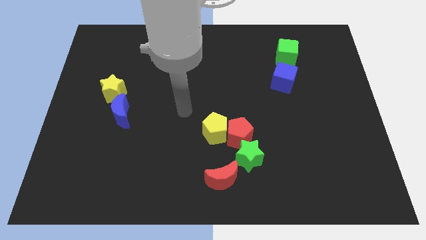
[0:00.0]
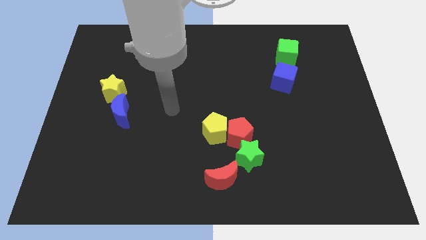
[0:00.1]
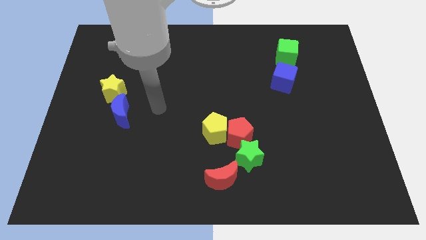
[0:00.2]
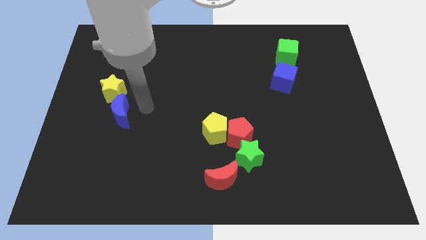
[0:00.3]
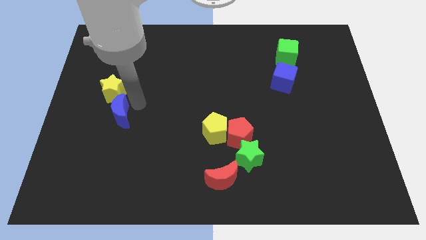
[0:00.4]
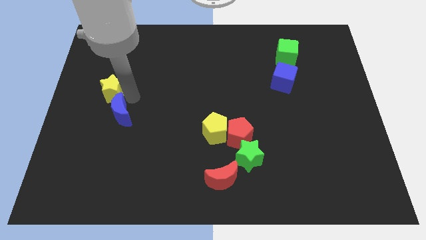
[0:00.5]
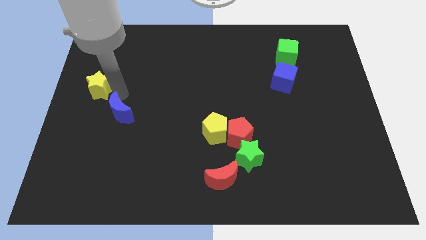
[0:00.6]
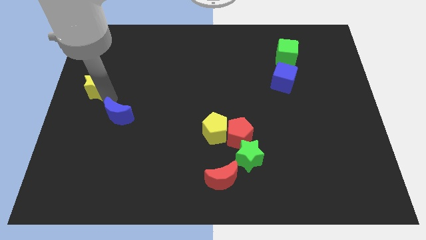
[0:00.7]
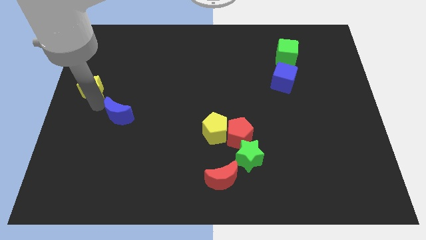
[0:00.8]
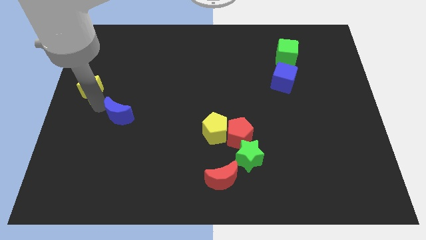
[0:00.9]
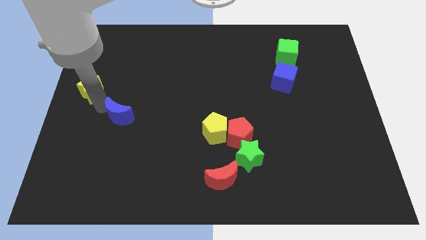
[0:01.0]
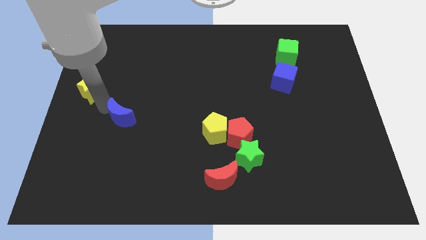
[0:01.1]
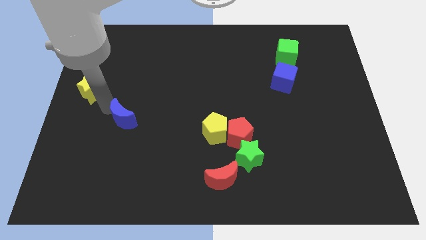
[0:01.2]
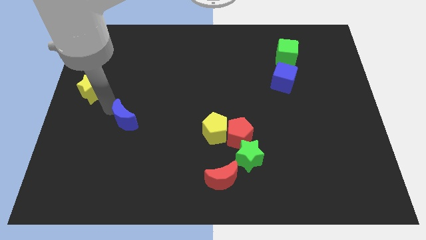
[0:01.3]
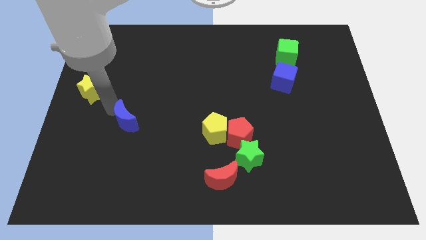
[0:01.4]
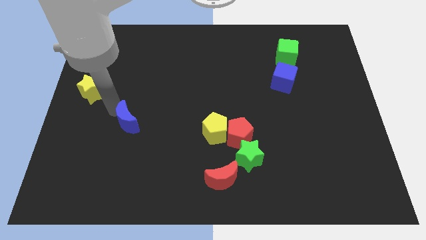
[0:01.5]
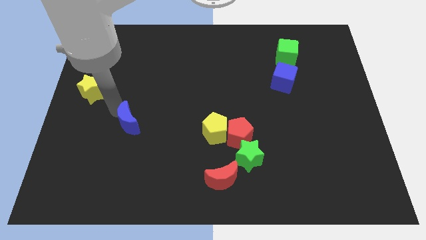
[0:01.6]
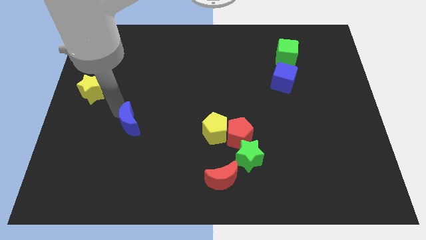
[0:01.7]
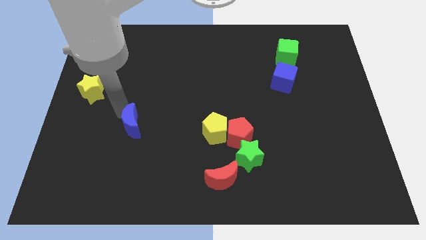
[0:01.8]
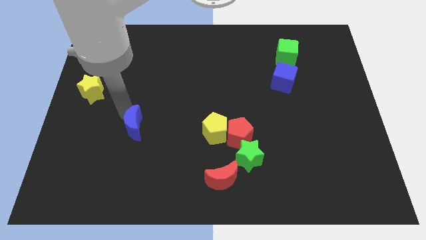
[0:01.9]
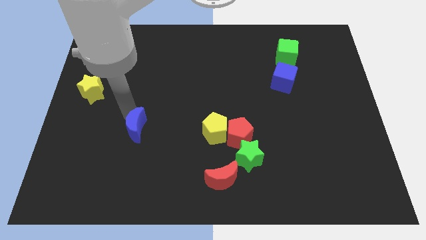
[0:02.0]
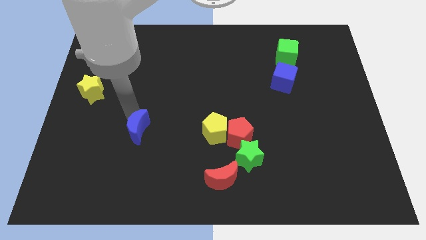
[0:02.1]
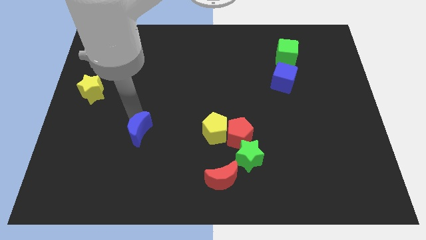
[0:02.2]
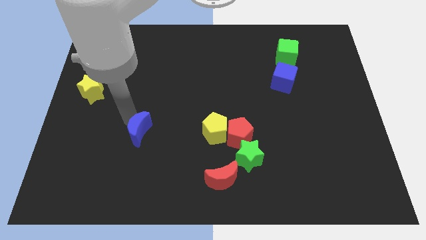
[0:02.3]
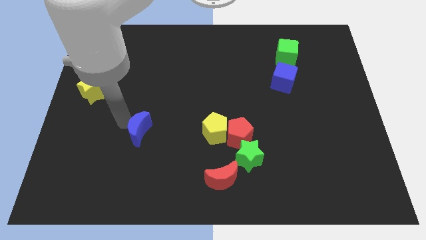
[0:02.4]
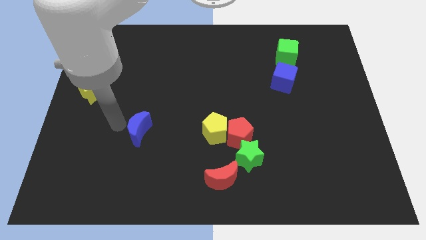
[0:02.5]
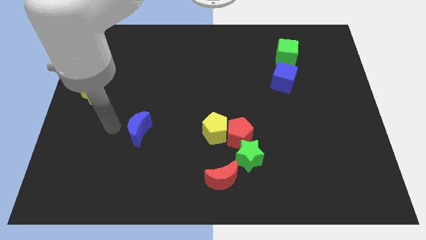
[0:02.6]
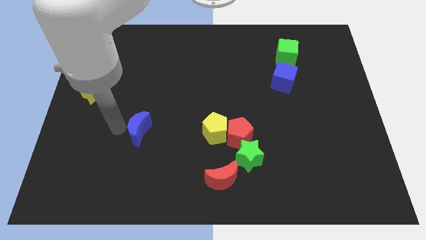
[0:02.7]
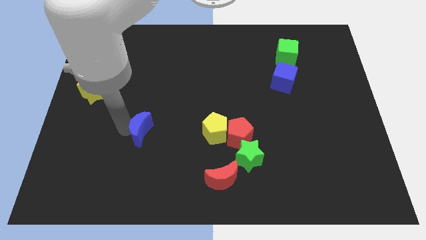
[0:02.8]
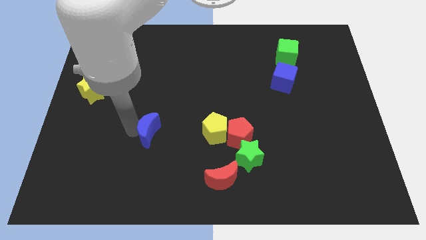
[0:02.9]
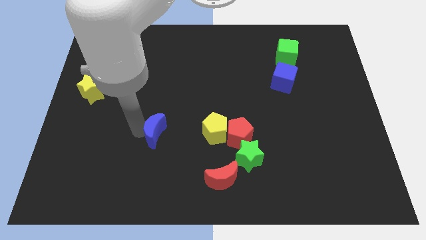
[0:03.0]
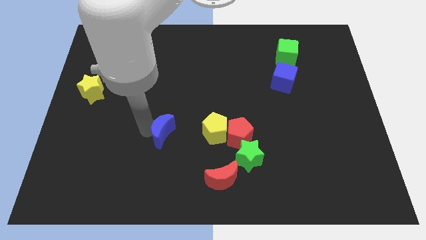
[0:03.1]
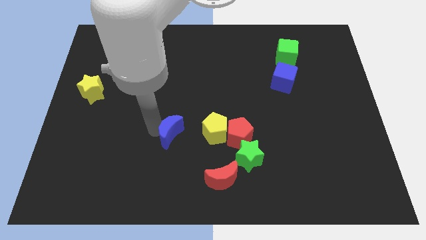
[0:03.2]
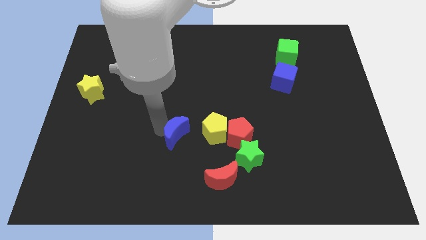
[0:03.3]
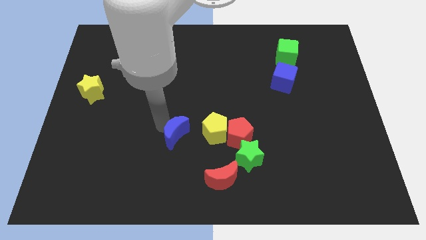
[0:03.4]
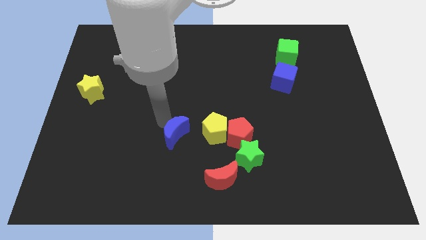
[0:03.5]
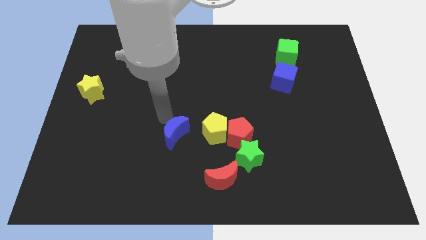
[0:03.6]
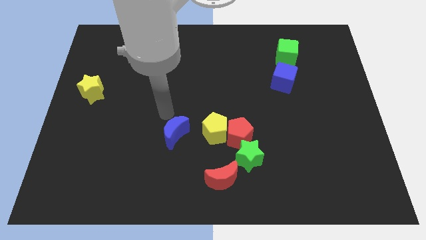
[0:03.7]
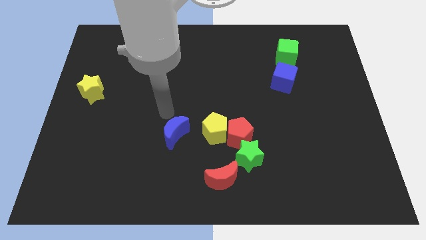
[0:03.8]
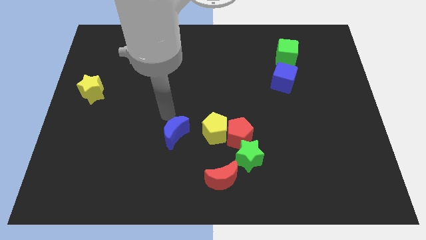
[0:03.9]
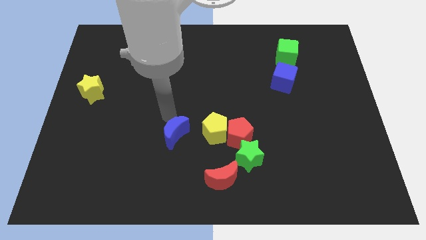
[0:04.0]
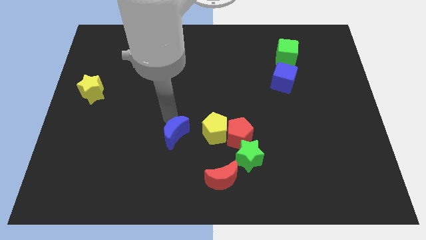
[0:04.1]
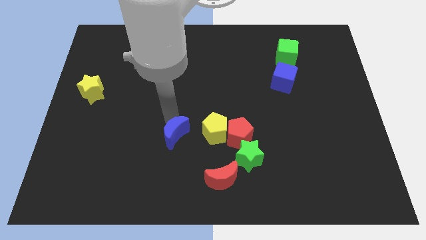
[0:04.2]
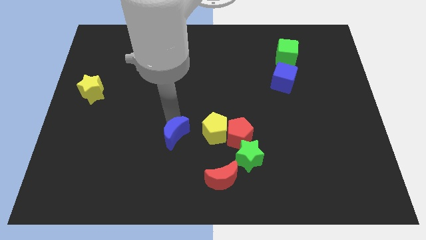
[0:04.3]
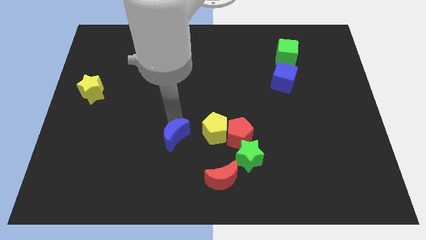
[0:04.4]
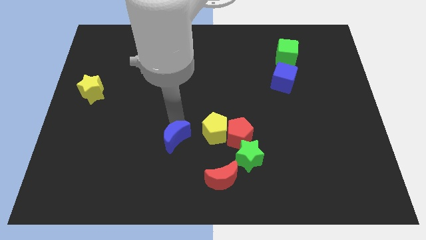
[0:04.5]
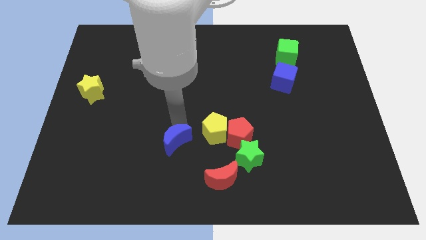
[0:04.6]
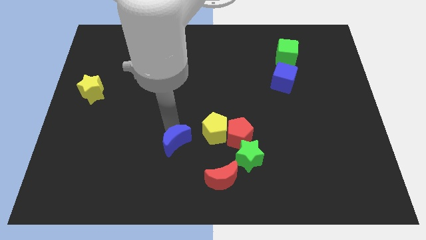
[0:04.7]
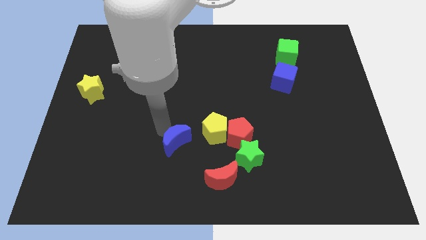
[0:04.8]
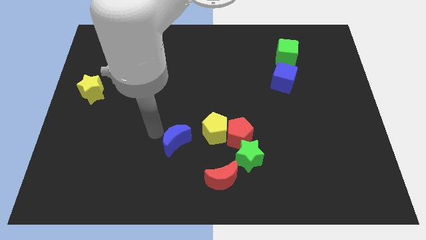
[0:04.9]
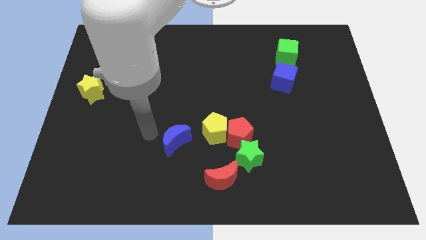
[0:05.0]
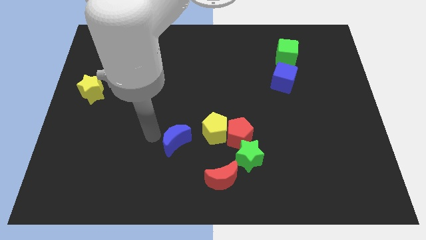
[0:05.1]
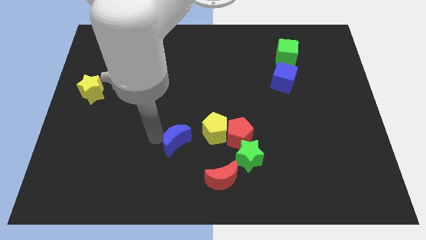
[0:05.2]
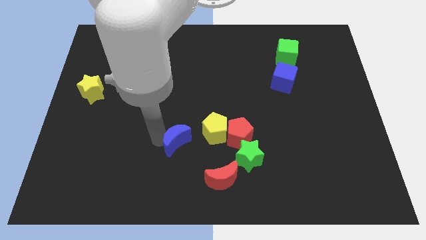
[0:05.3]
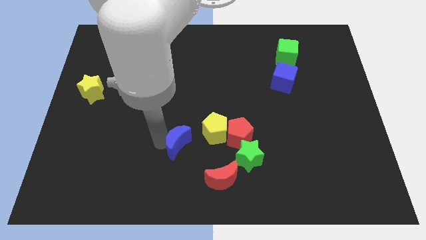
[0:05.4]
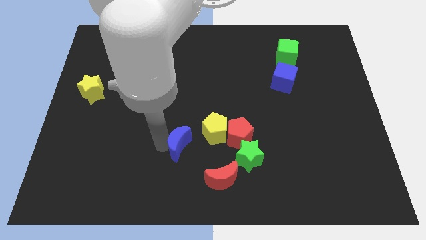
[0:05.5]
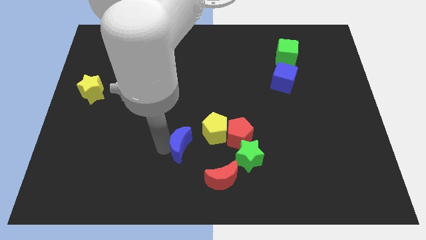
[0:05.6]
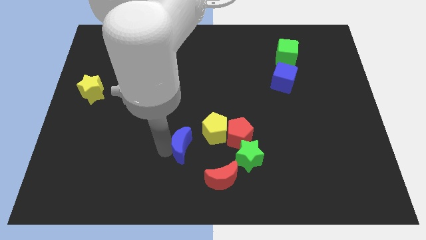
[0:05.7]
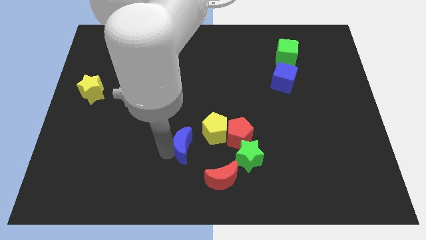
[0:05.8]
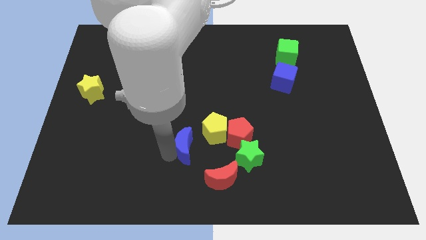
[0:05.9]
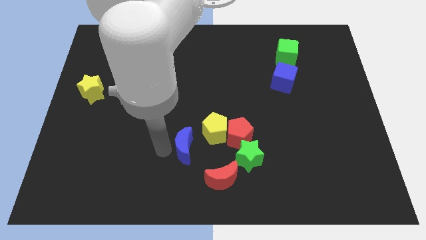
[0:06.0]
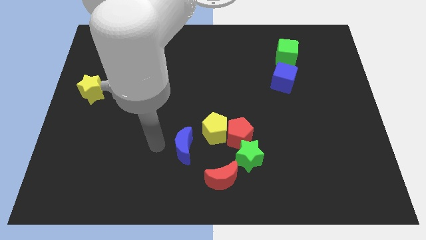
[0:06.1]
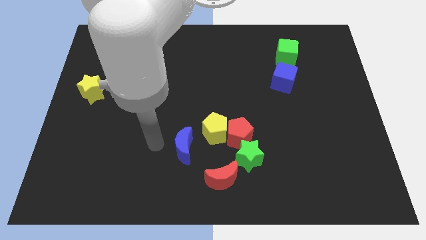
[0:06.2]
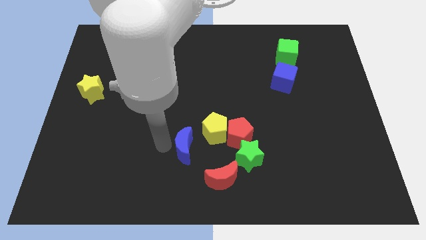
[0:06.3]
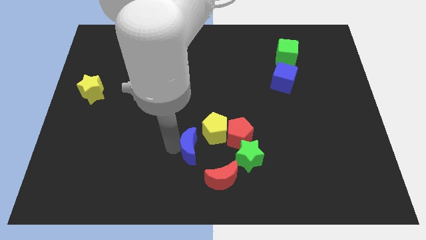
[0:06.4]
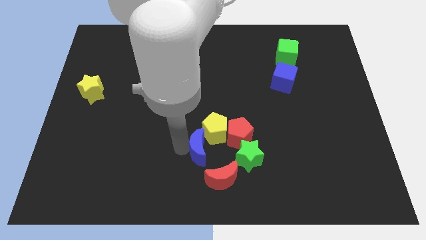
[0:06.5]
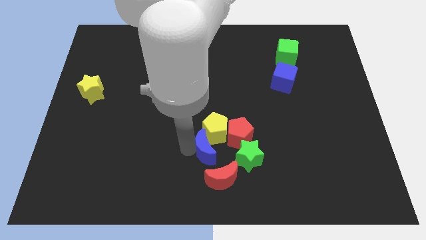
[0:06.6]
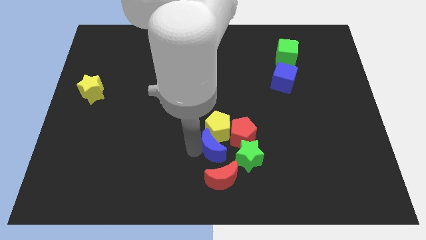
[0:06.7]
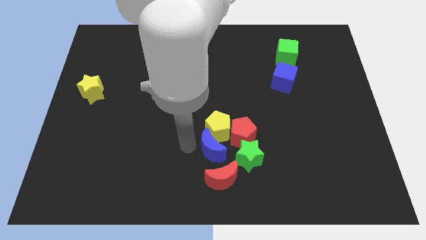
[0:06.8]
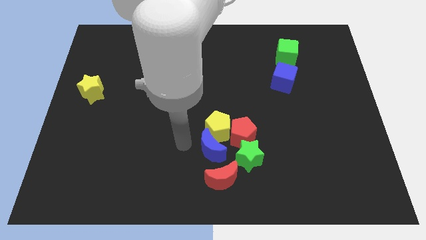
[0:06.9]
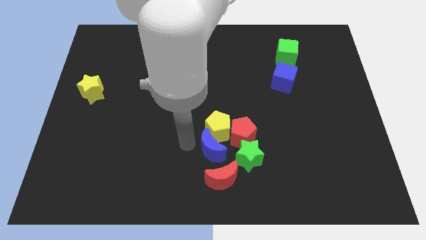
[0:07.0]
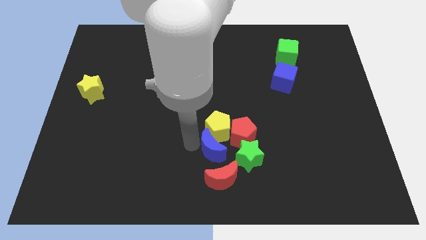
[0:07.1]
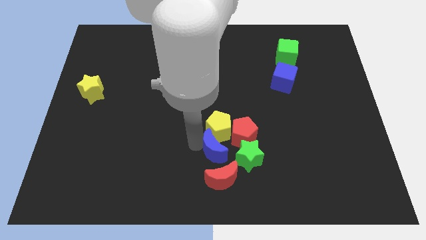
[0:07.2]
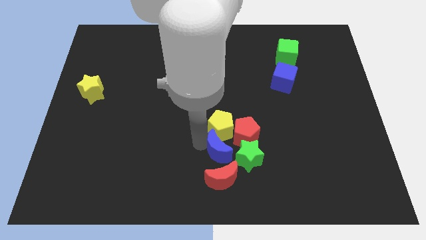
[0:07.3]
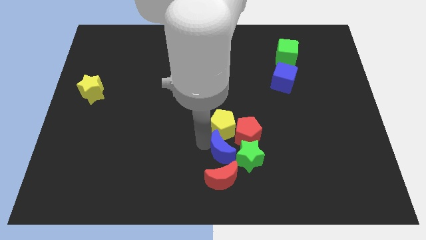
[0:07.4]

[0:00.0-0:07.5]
slide the blue moon towards the green star

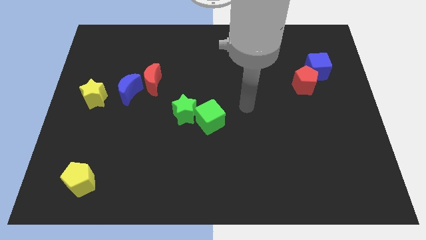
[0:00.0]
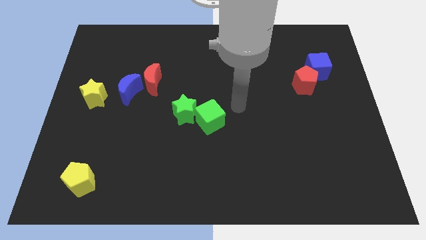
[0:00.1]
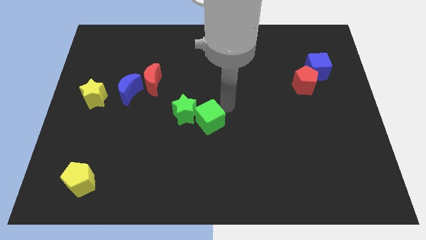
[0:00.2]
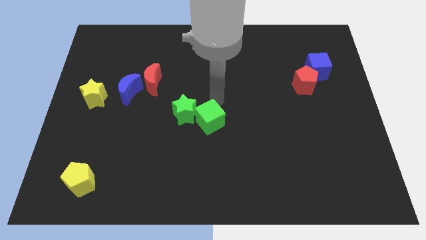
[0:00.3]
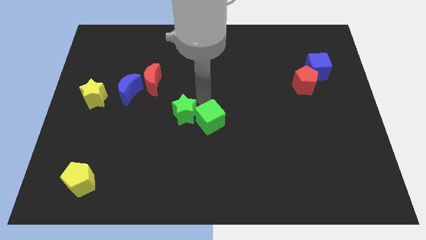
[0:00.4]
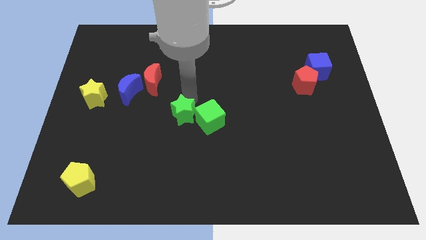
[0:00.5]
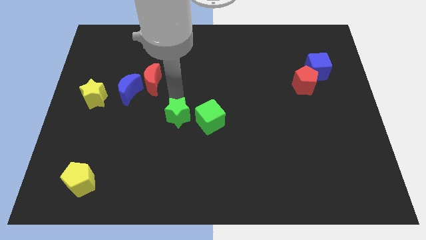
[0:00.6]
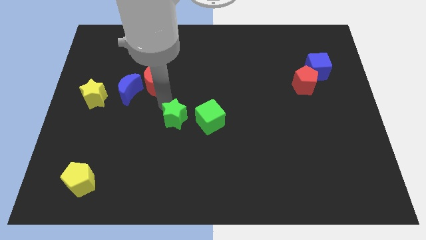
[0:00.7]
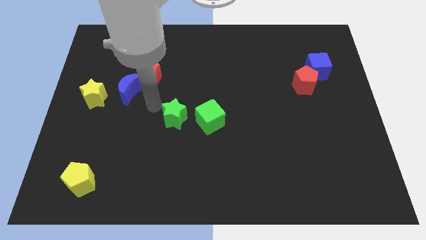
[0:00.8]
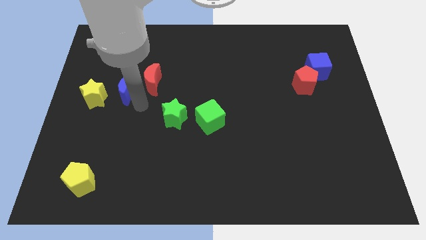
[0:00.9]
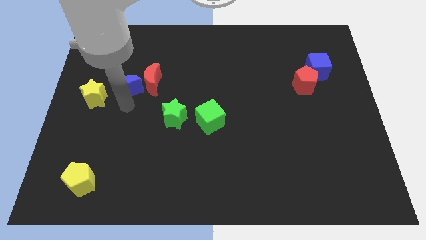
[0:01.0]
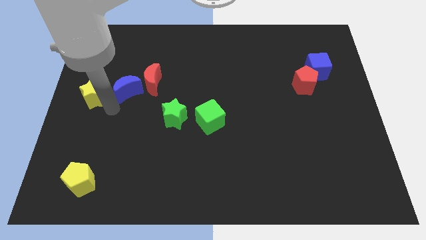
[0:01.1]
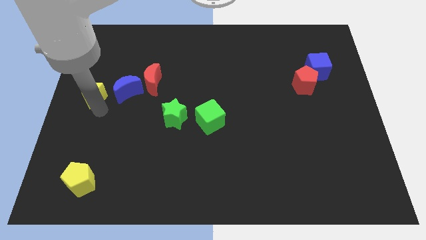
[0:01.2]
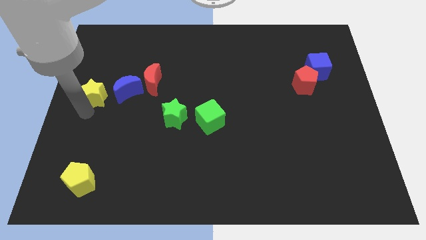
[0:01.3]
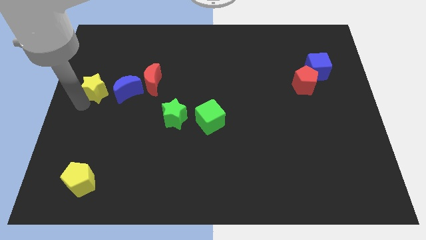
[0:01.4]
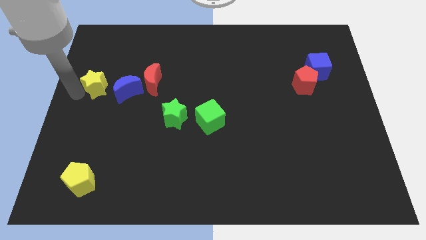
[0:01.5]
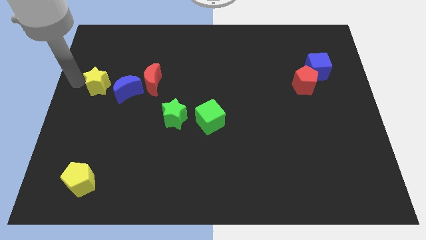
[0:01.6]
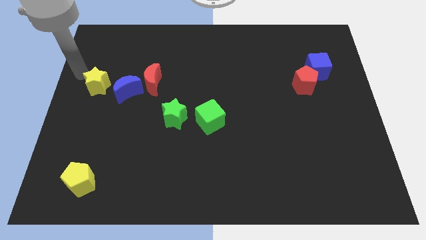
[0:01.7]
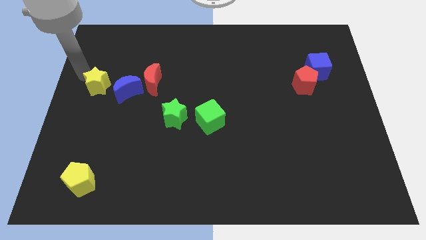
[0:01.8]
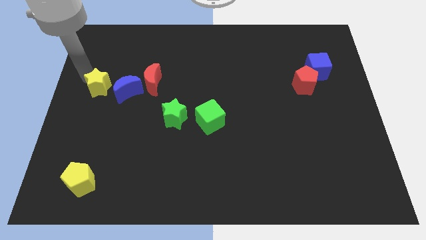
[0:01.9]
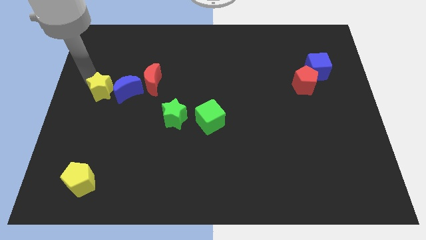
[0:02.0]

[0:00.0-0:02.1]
move the yellow star close to the blue moon
